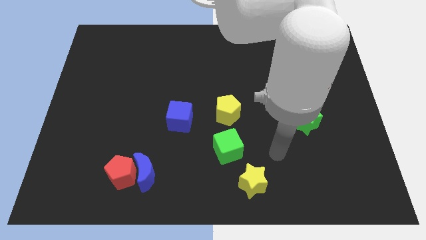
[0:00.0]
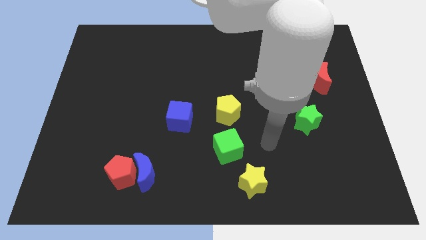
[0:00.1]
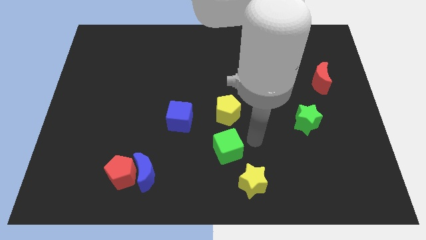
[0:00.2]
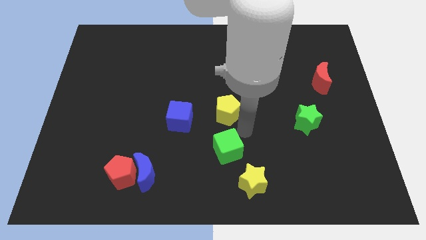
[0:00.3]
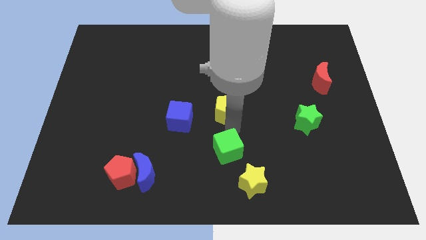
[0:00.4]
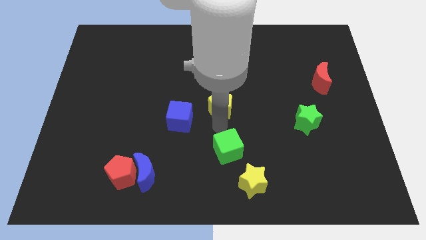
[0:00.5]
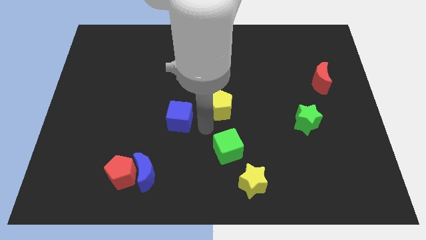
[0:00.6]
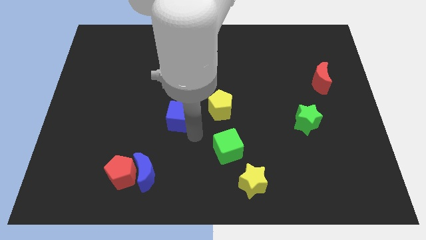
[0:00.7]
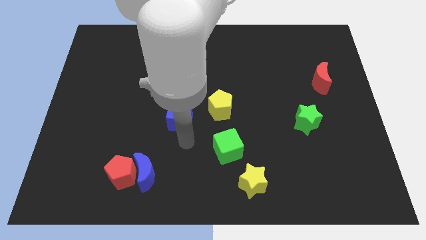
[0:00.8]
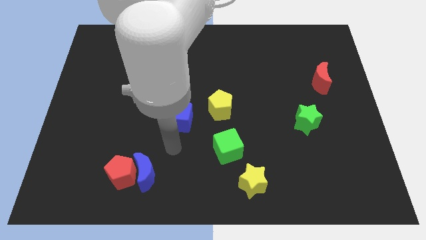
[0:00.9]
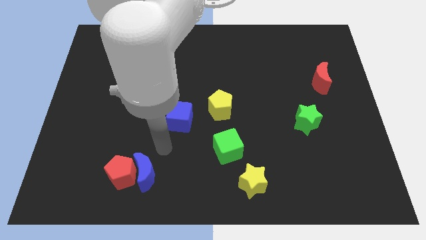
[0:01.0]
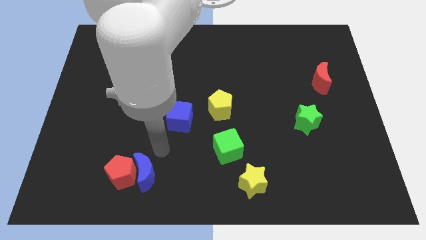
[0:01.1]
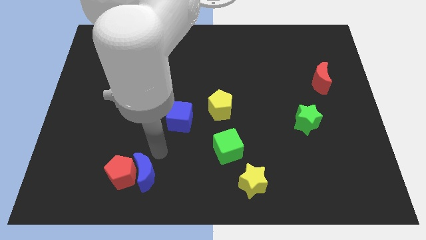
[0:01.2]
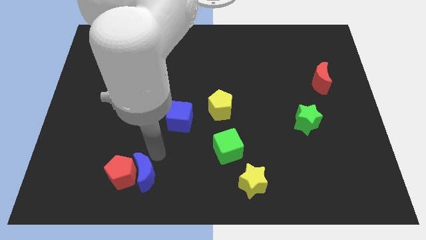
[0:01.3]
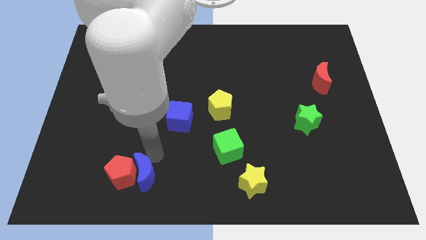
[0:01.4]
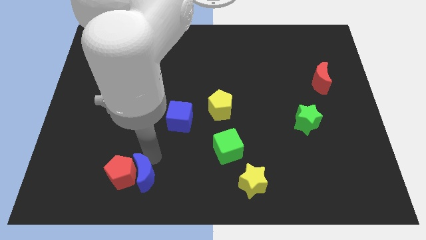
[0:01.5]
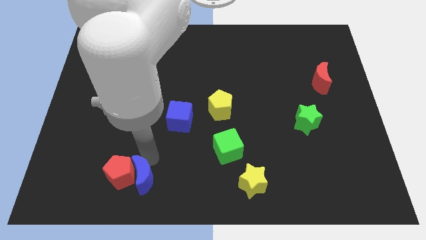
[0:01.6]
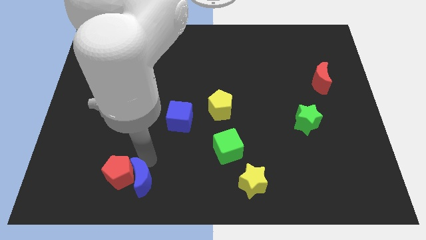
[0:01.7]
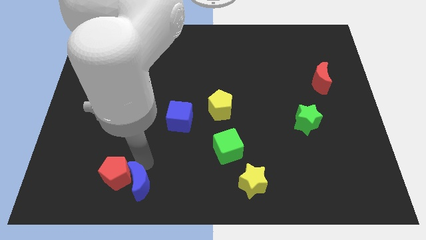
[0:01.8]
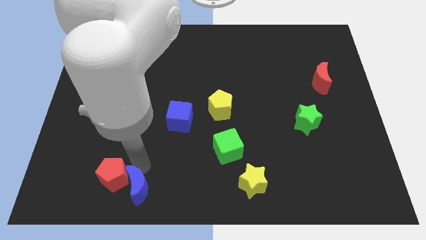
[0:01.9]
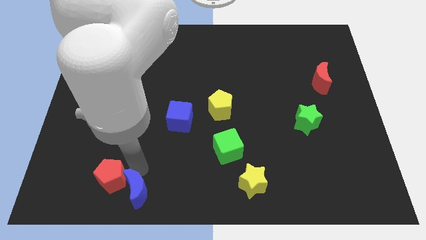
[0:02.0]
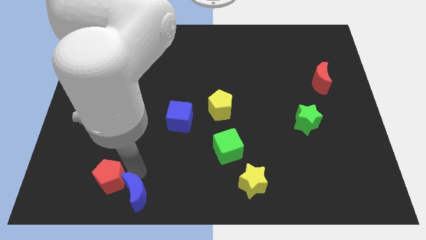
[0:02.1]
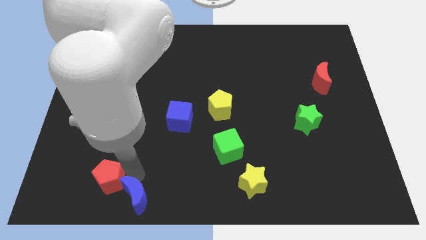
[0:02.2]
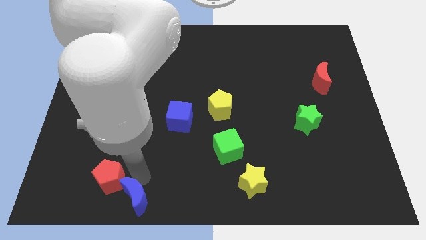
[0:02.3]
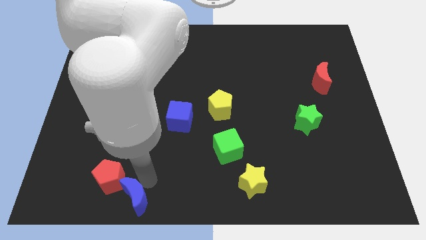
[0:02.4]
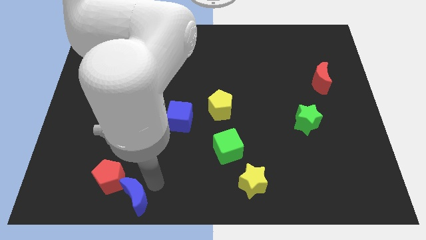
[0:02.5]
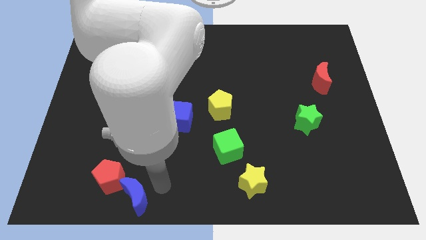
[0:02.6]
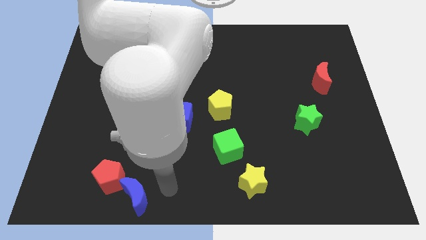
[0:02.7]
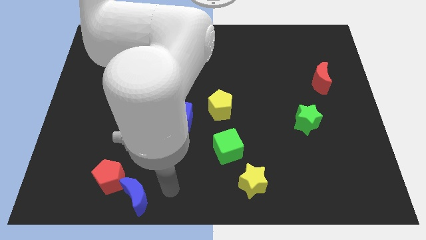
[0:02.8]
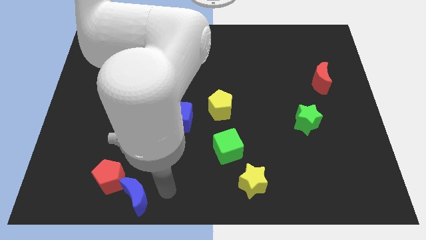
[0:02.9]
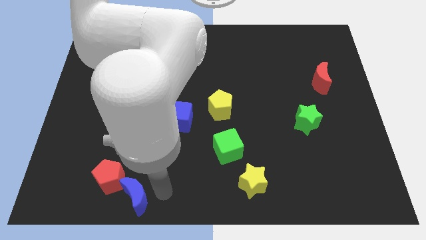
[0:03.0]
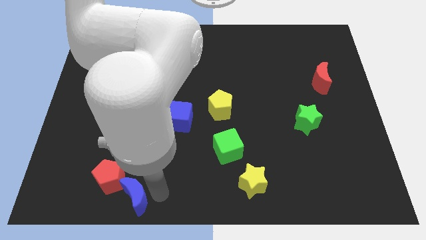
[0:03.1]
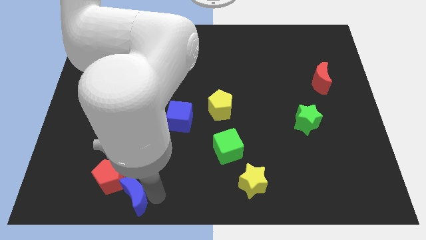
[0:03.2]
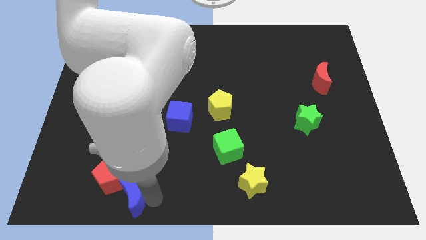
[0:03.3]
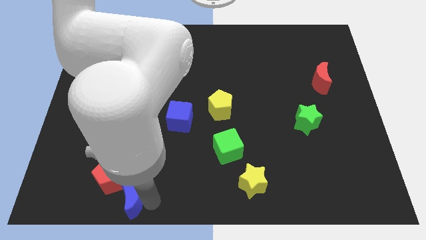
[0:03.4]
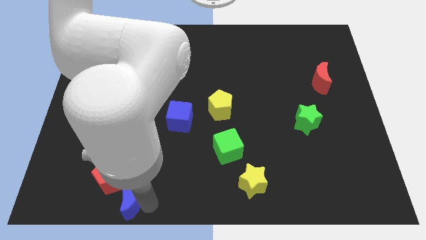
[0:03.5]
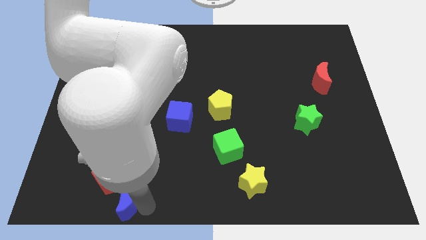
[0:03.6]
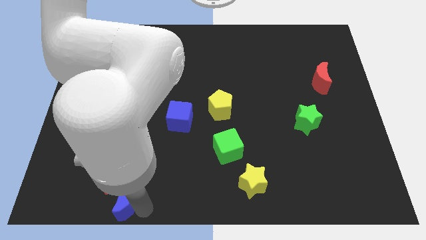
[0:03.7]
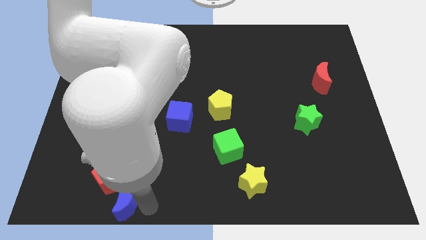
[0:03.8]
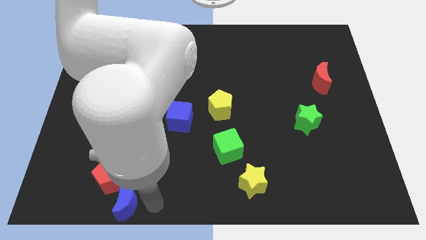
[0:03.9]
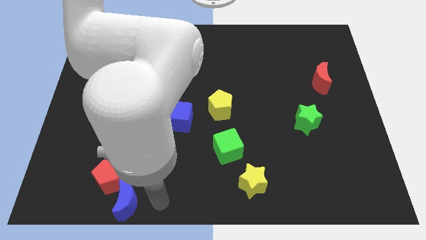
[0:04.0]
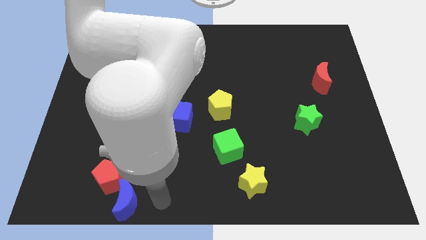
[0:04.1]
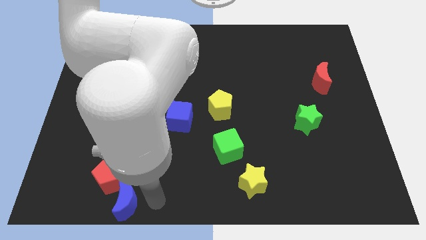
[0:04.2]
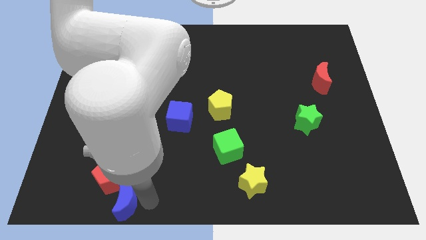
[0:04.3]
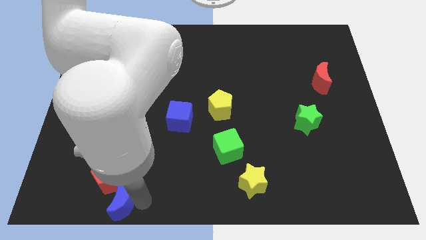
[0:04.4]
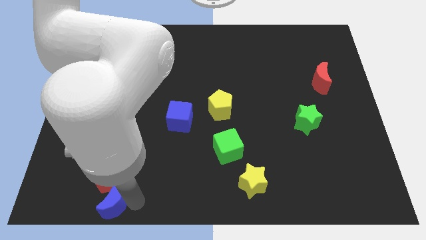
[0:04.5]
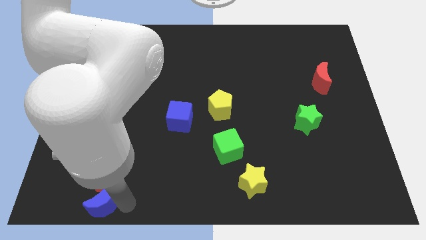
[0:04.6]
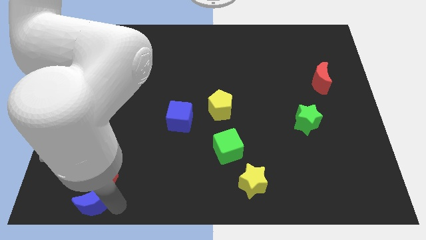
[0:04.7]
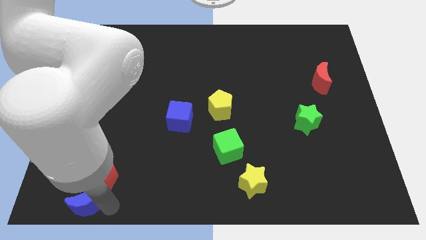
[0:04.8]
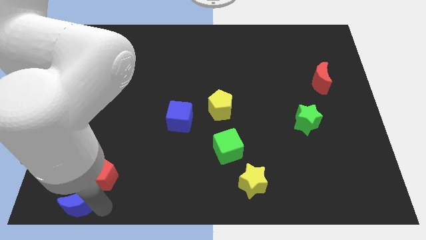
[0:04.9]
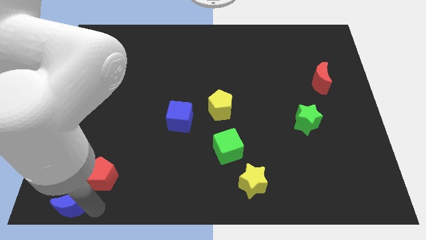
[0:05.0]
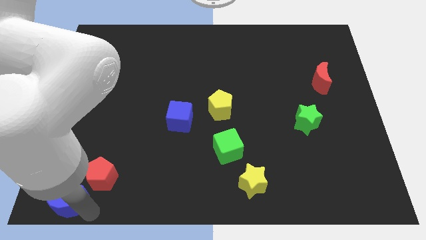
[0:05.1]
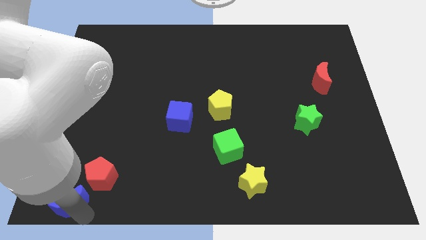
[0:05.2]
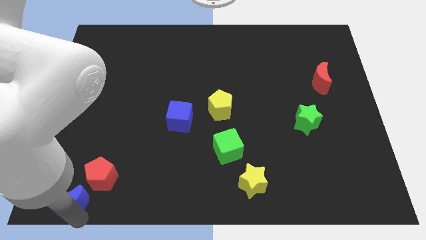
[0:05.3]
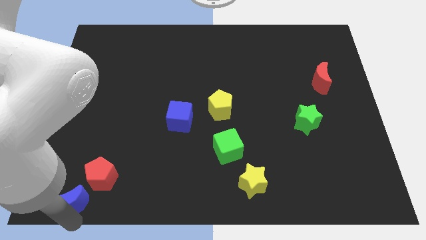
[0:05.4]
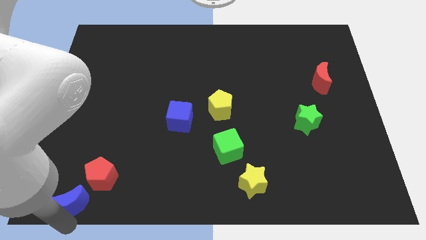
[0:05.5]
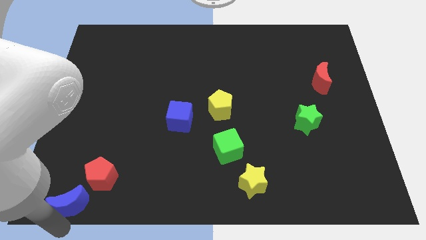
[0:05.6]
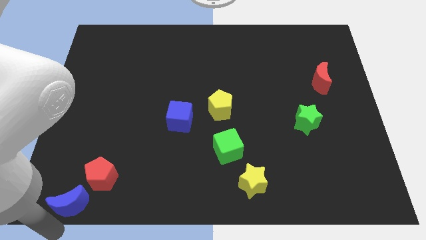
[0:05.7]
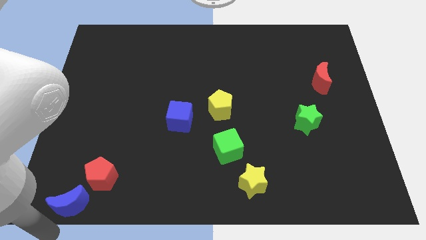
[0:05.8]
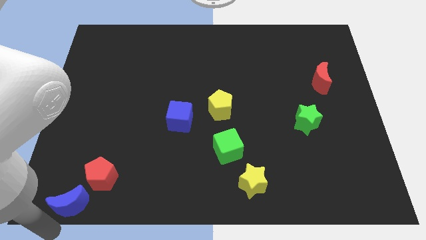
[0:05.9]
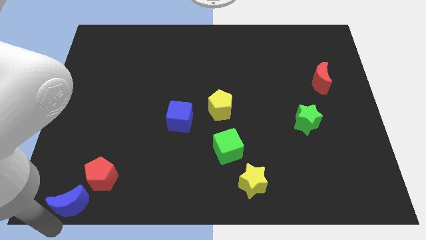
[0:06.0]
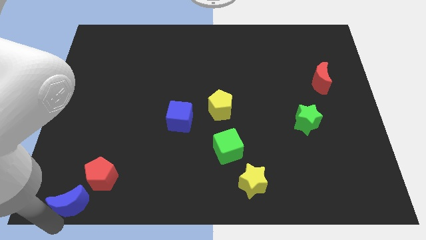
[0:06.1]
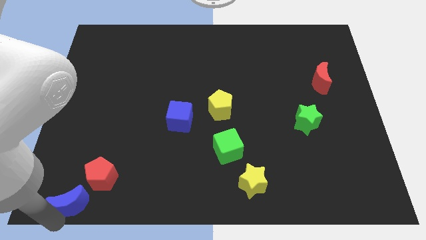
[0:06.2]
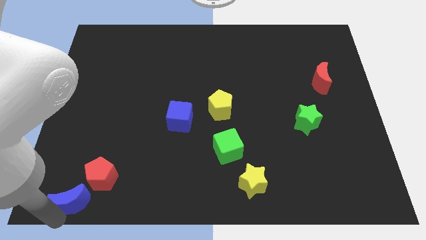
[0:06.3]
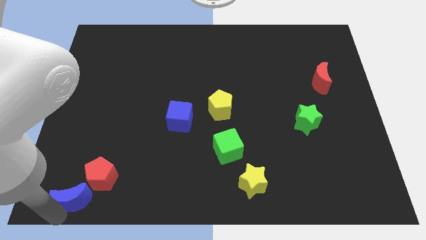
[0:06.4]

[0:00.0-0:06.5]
move the blue moon just left of the red pentagon

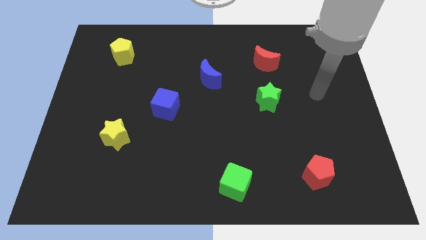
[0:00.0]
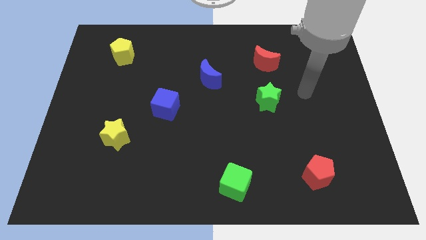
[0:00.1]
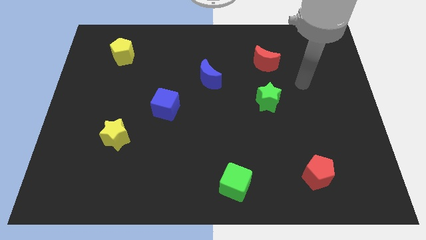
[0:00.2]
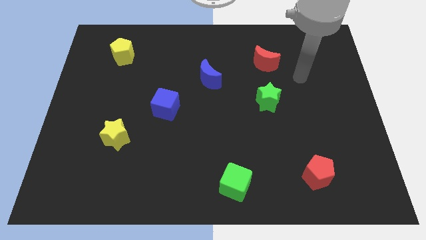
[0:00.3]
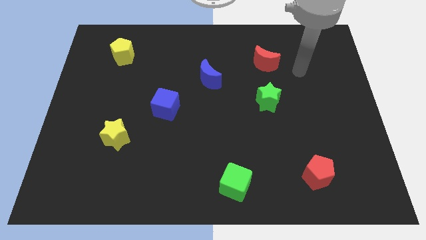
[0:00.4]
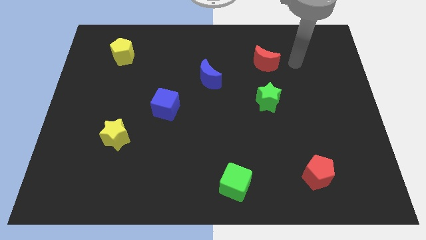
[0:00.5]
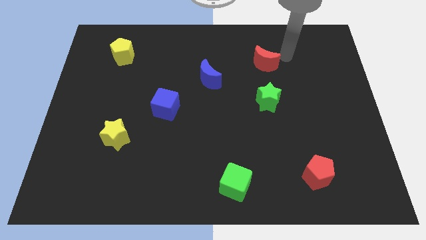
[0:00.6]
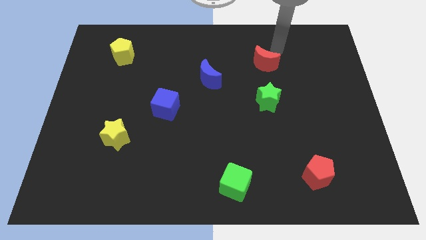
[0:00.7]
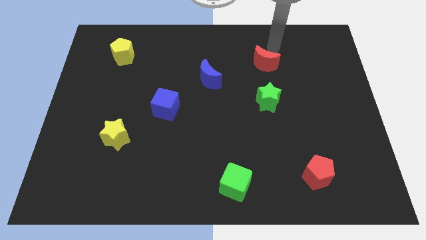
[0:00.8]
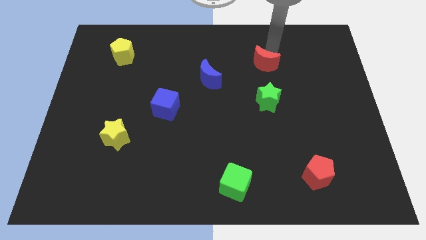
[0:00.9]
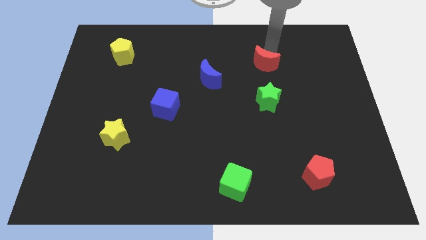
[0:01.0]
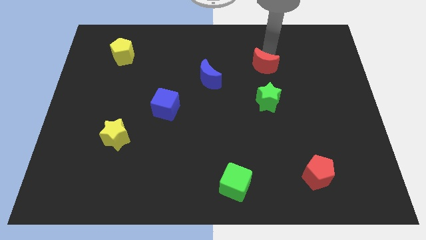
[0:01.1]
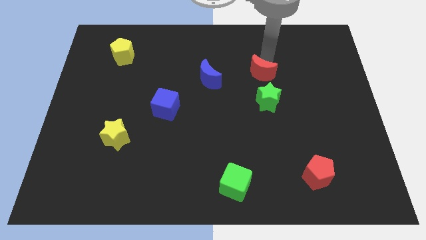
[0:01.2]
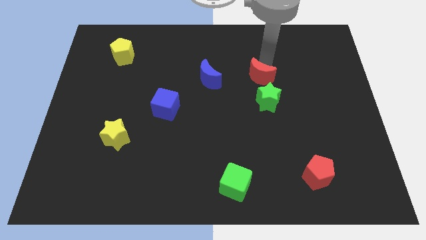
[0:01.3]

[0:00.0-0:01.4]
put the red moon to the top left of the green star

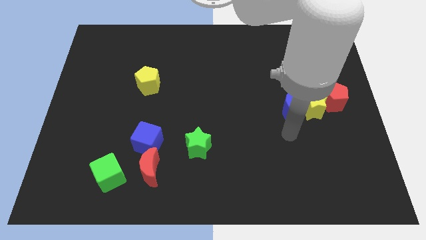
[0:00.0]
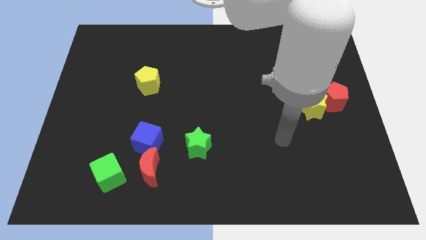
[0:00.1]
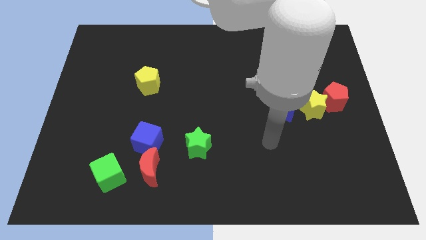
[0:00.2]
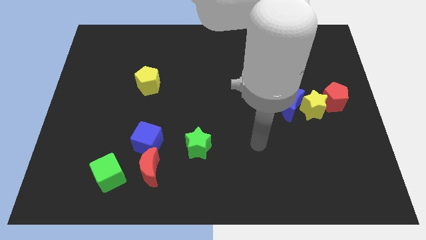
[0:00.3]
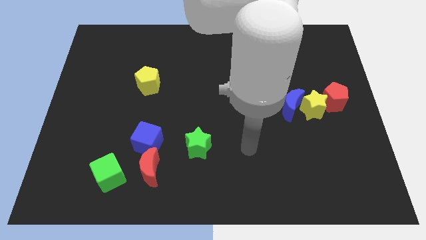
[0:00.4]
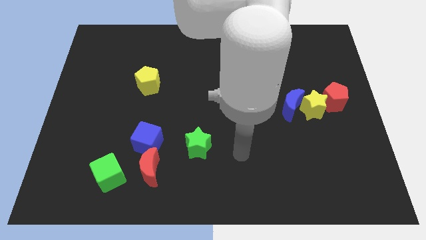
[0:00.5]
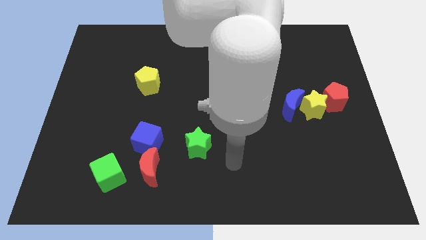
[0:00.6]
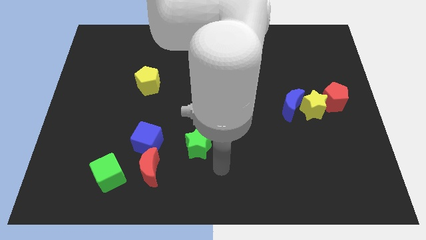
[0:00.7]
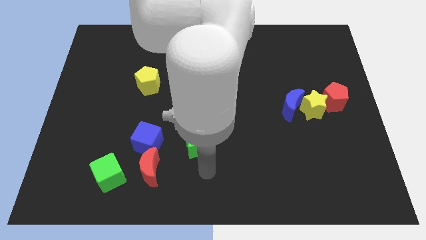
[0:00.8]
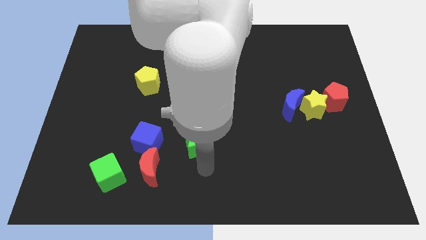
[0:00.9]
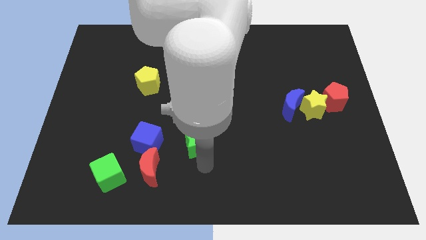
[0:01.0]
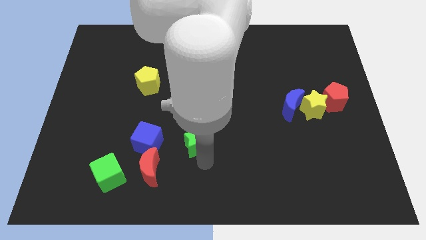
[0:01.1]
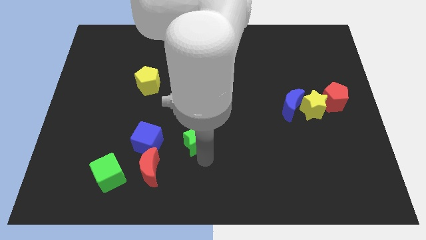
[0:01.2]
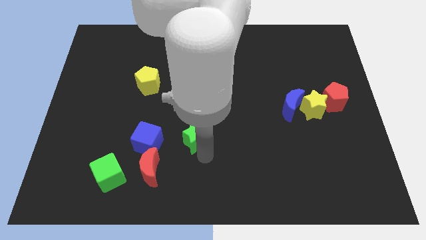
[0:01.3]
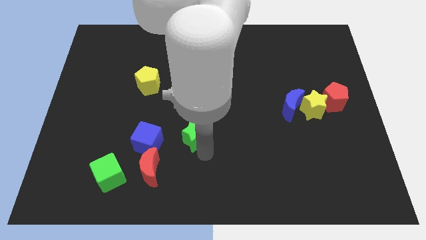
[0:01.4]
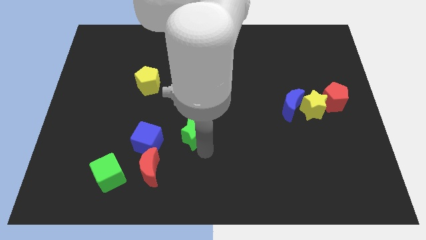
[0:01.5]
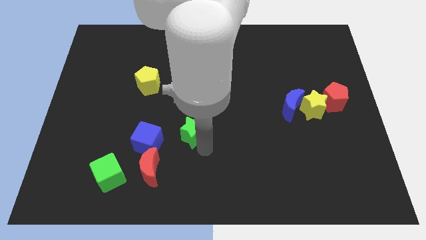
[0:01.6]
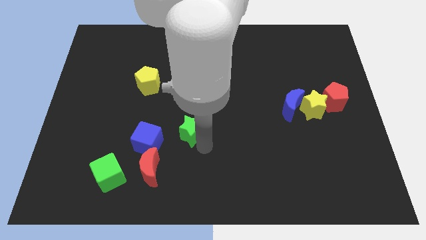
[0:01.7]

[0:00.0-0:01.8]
push the green star diagonally up and to the right of the blue cube
